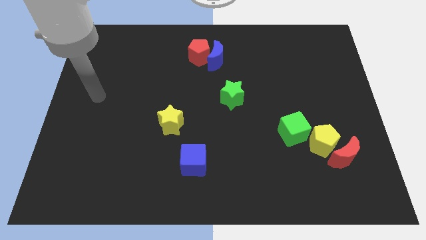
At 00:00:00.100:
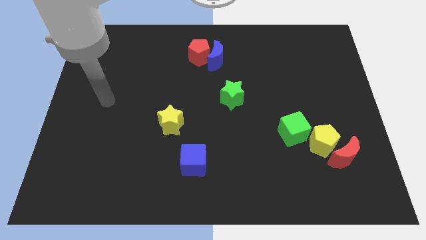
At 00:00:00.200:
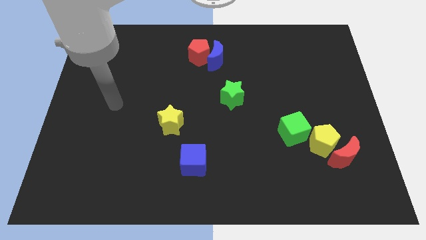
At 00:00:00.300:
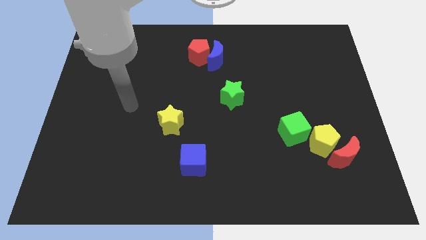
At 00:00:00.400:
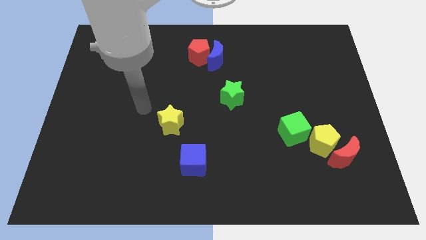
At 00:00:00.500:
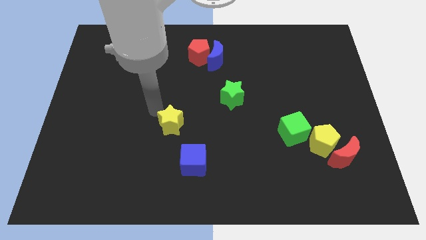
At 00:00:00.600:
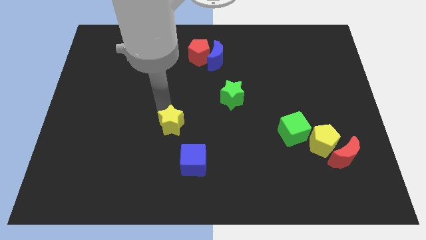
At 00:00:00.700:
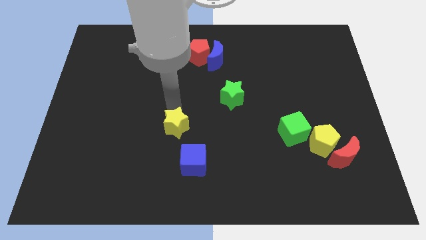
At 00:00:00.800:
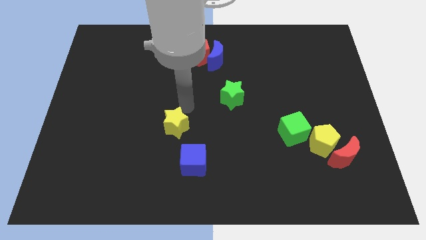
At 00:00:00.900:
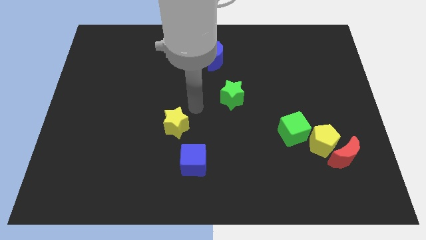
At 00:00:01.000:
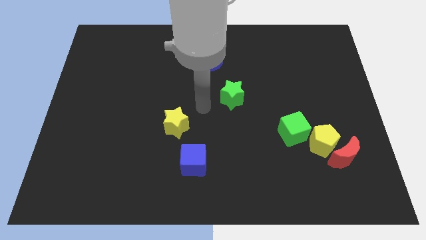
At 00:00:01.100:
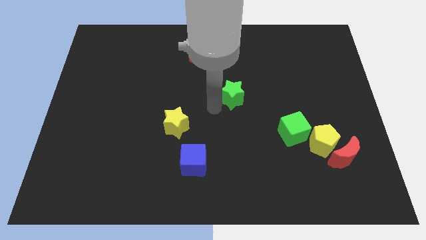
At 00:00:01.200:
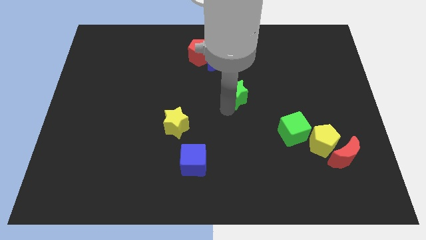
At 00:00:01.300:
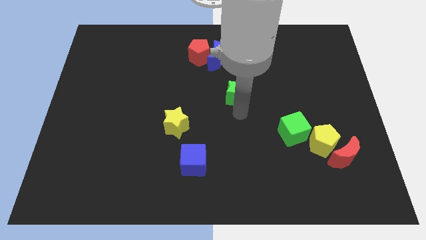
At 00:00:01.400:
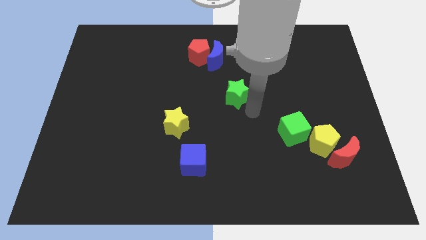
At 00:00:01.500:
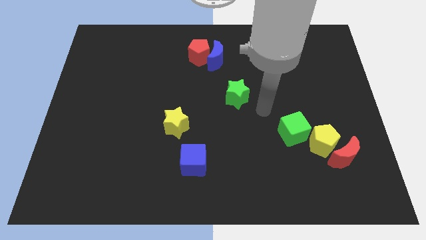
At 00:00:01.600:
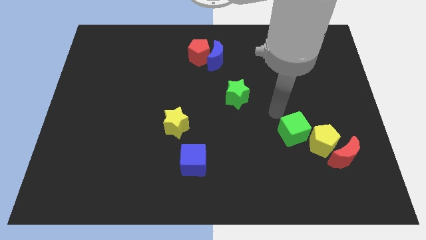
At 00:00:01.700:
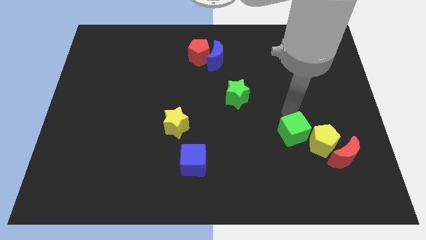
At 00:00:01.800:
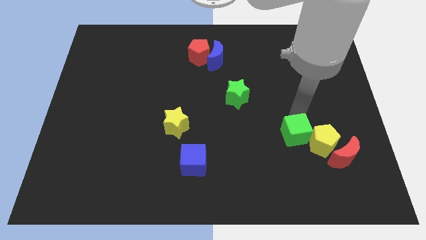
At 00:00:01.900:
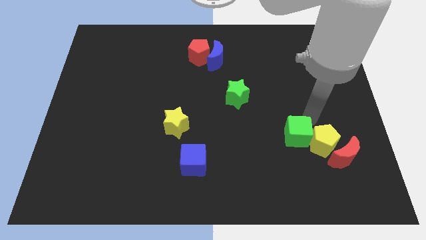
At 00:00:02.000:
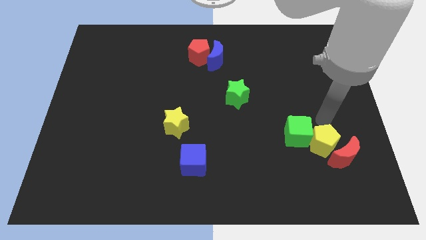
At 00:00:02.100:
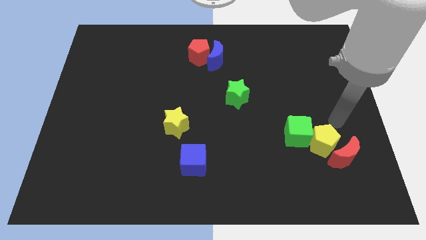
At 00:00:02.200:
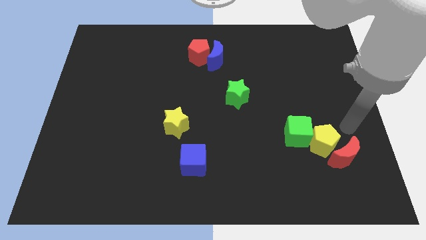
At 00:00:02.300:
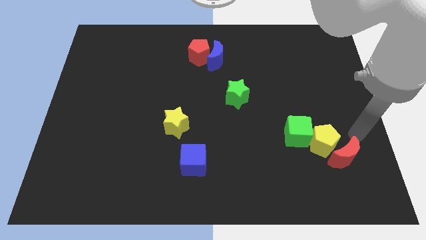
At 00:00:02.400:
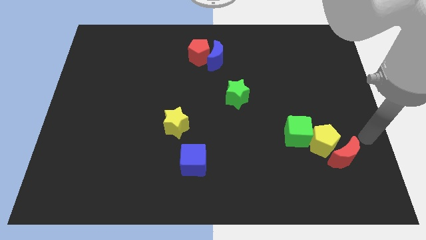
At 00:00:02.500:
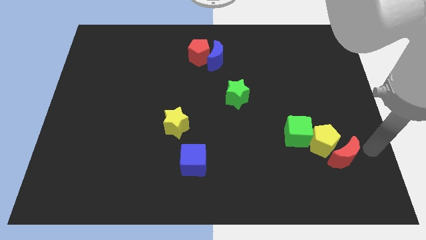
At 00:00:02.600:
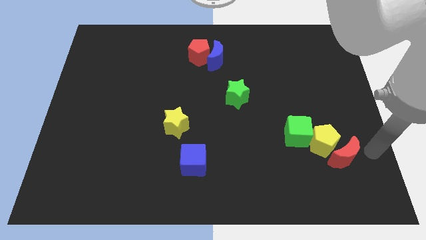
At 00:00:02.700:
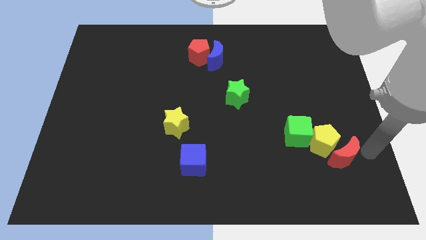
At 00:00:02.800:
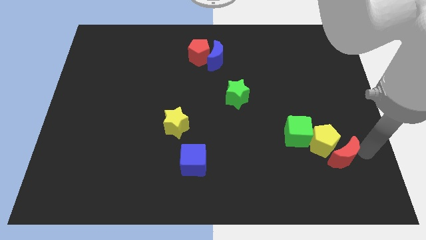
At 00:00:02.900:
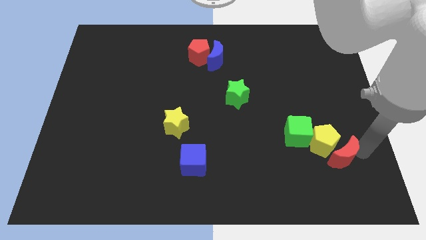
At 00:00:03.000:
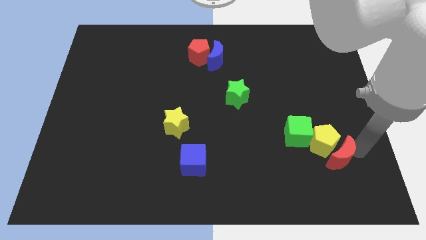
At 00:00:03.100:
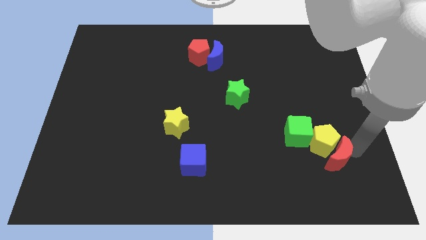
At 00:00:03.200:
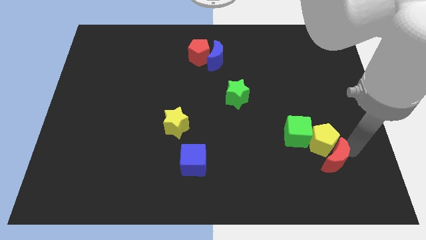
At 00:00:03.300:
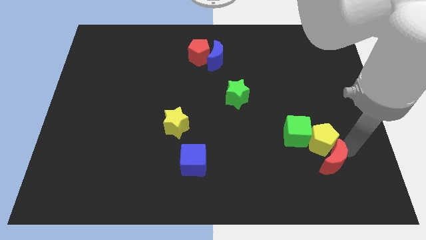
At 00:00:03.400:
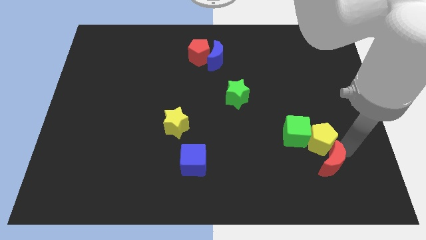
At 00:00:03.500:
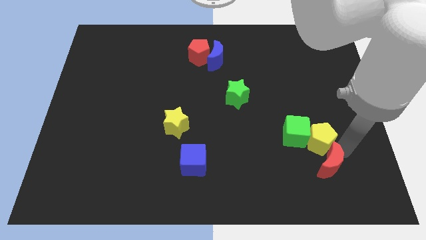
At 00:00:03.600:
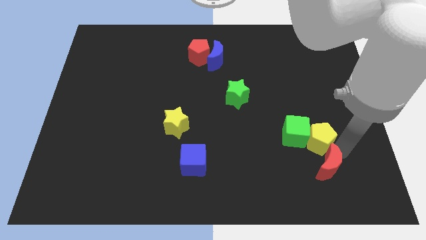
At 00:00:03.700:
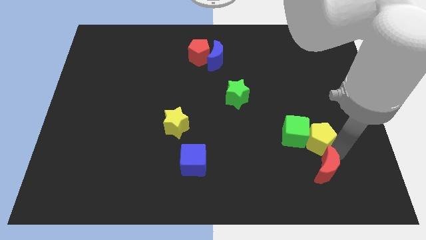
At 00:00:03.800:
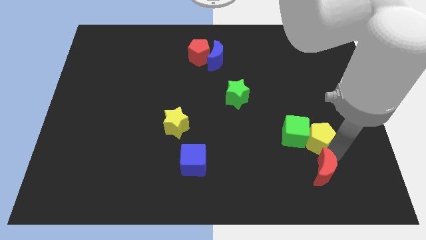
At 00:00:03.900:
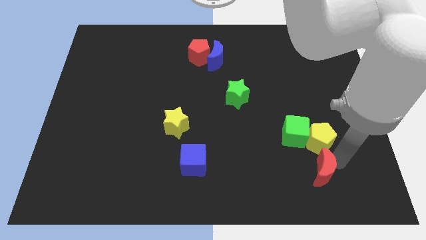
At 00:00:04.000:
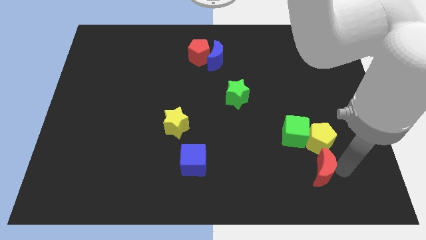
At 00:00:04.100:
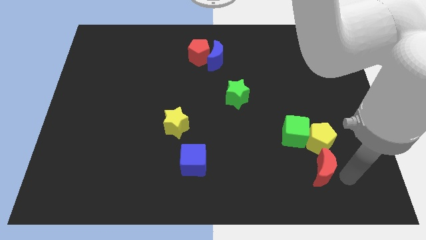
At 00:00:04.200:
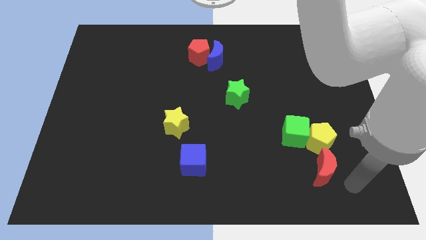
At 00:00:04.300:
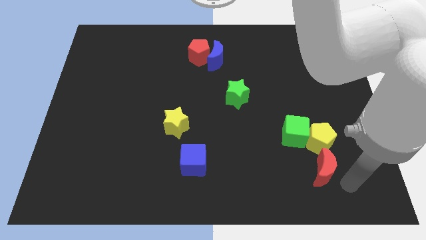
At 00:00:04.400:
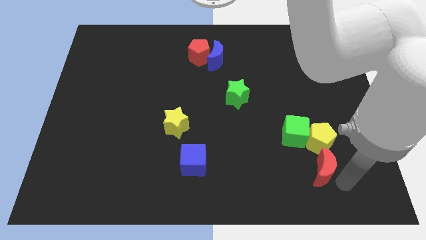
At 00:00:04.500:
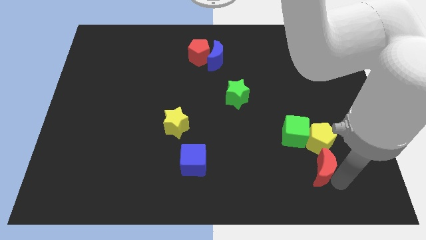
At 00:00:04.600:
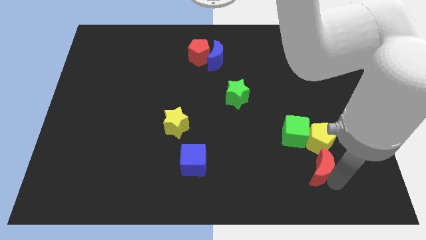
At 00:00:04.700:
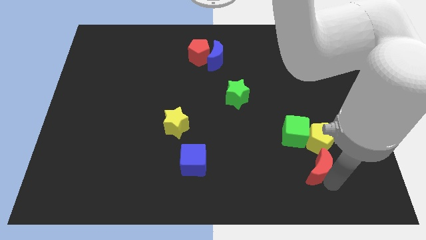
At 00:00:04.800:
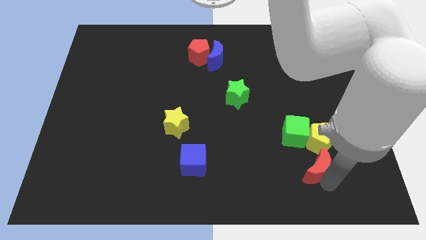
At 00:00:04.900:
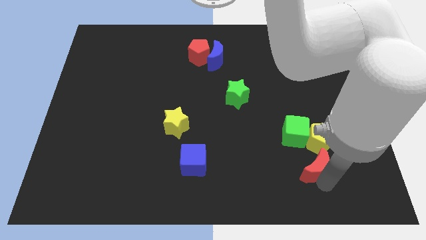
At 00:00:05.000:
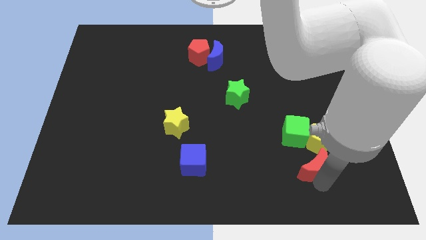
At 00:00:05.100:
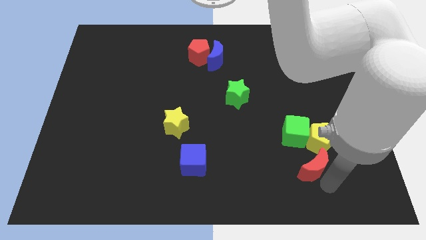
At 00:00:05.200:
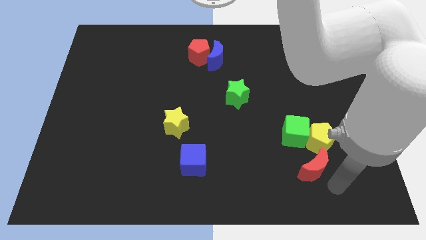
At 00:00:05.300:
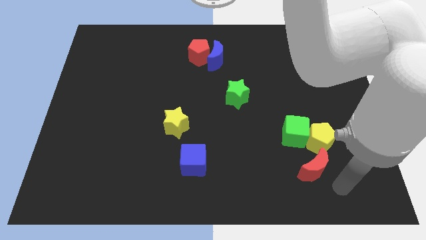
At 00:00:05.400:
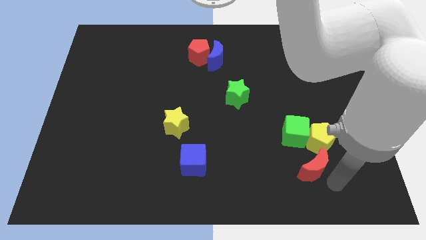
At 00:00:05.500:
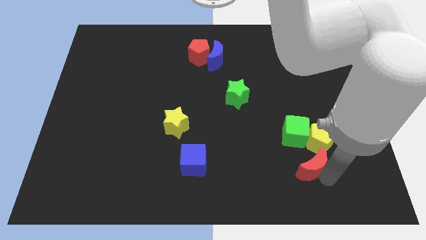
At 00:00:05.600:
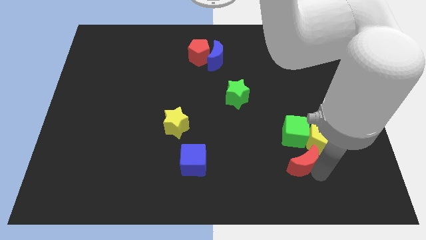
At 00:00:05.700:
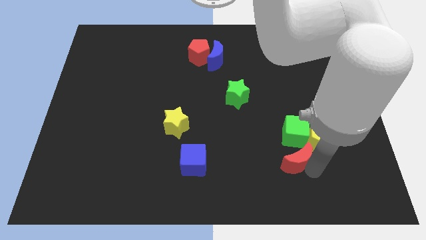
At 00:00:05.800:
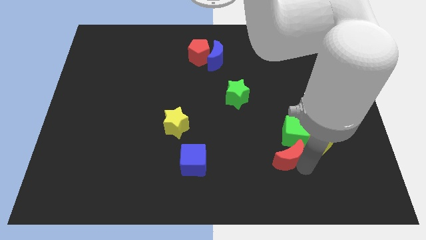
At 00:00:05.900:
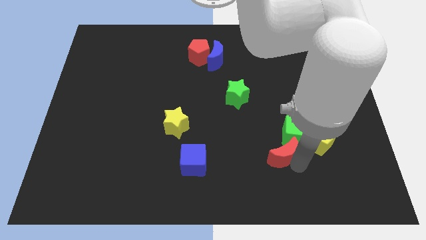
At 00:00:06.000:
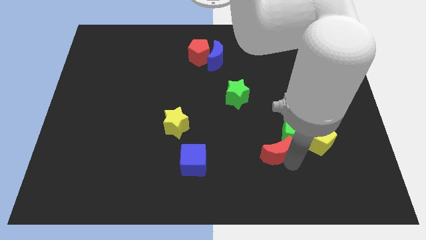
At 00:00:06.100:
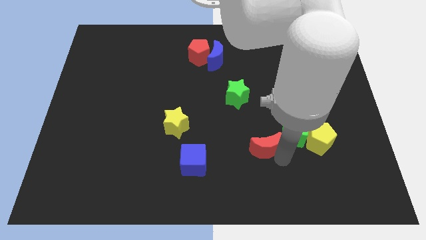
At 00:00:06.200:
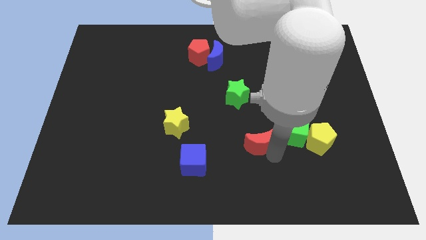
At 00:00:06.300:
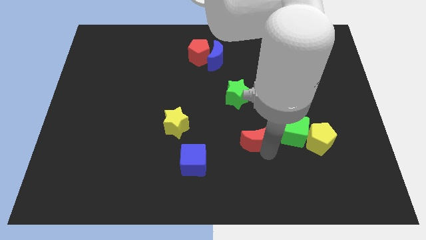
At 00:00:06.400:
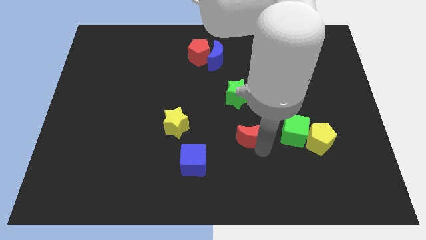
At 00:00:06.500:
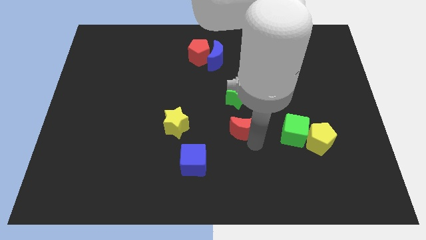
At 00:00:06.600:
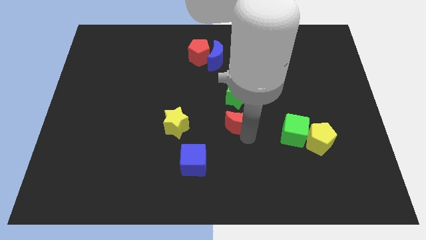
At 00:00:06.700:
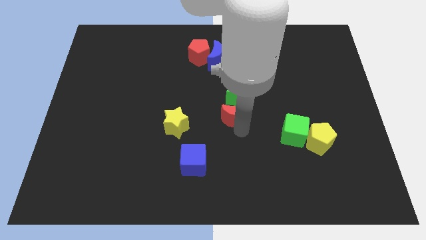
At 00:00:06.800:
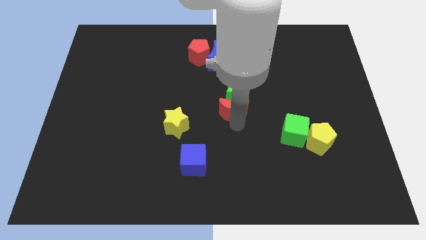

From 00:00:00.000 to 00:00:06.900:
move the red moon to the green star
